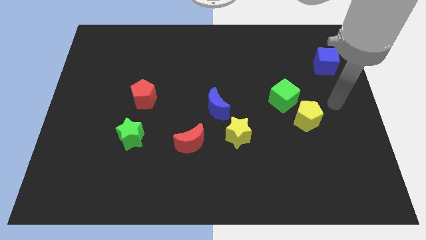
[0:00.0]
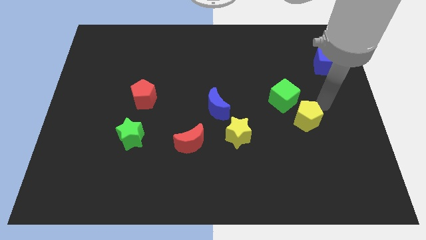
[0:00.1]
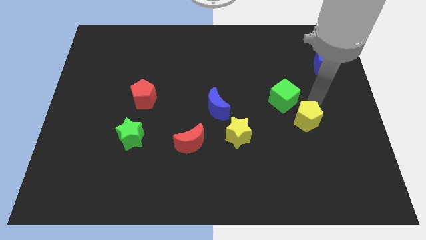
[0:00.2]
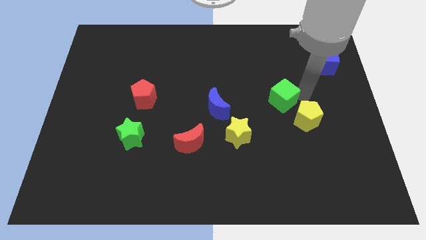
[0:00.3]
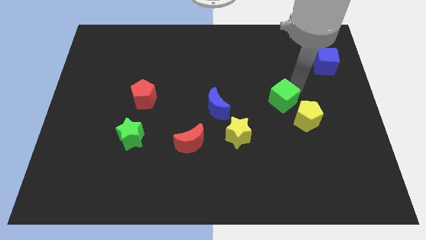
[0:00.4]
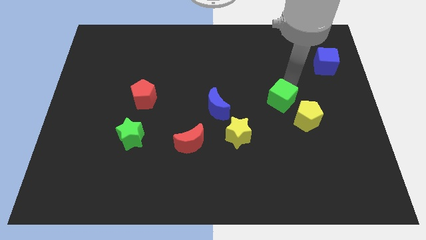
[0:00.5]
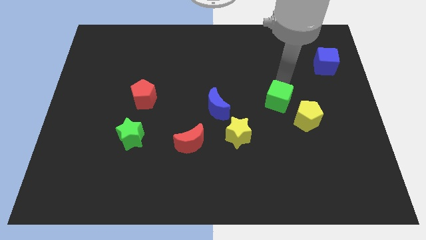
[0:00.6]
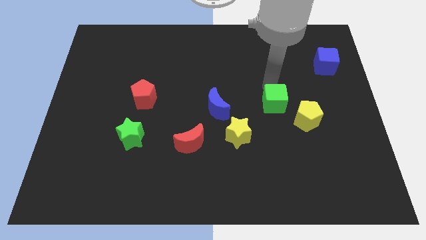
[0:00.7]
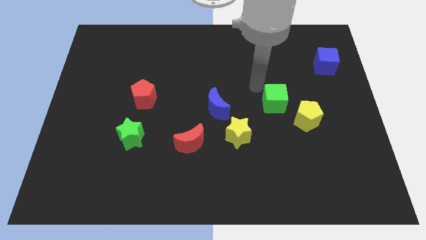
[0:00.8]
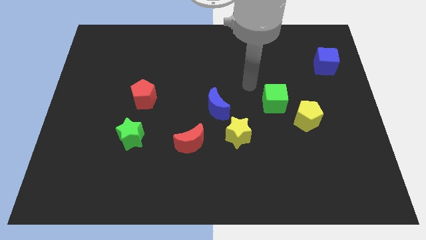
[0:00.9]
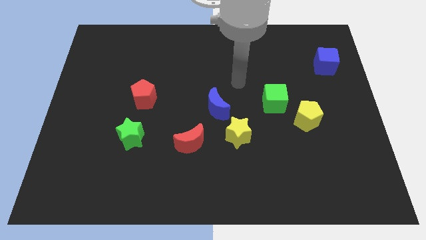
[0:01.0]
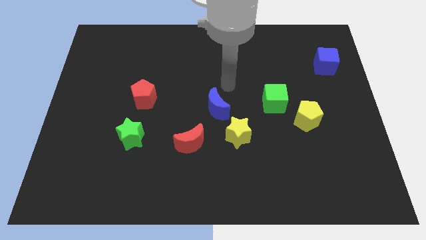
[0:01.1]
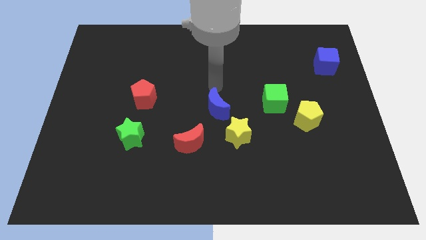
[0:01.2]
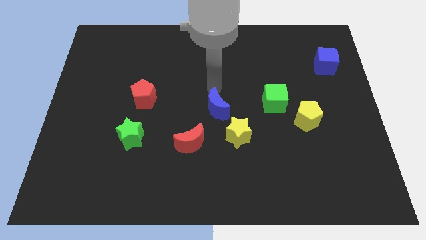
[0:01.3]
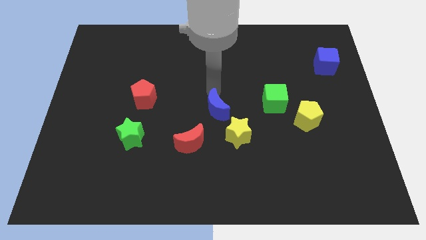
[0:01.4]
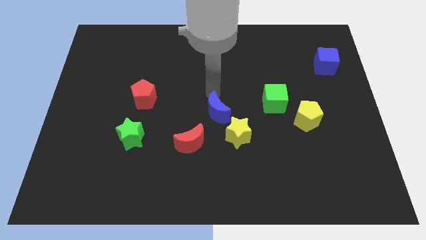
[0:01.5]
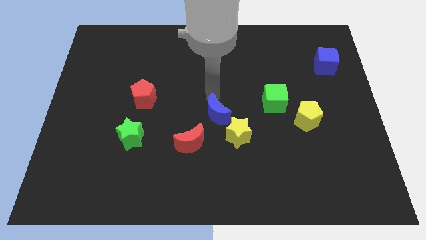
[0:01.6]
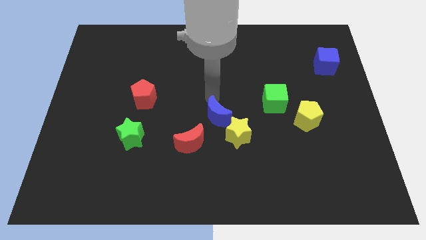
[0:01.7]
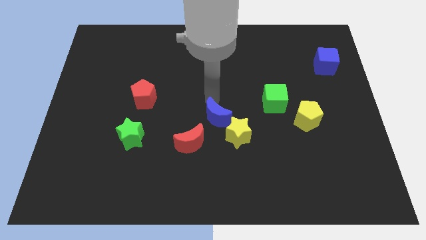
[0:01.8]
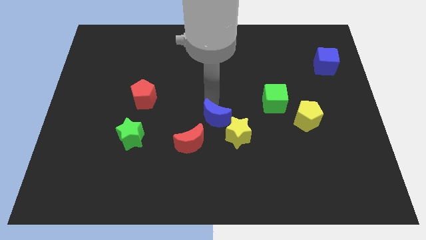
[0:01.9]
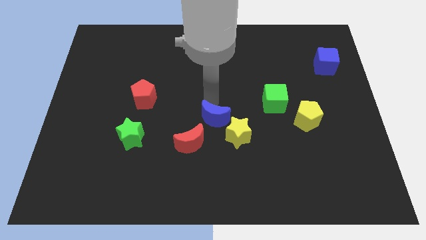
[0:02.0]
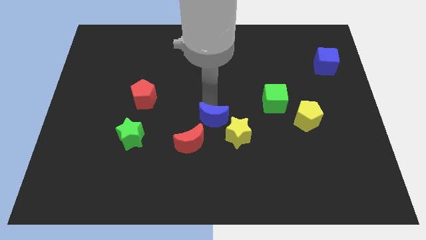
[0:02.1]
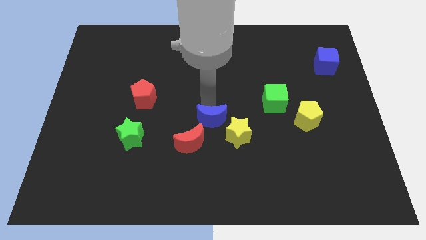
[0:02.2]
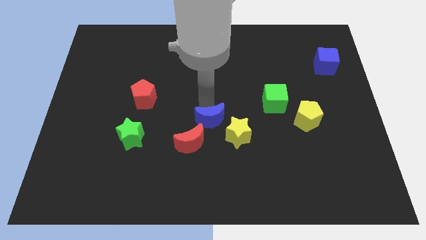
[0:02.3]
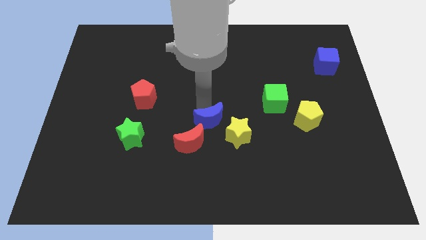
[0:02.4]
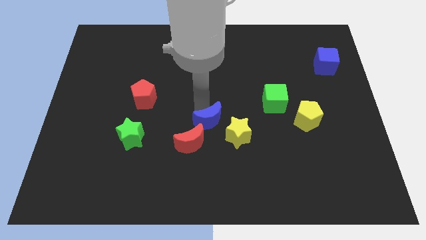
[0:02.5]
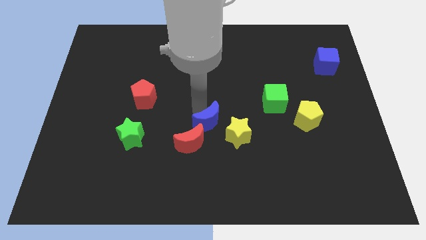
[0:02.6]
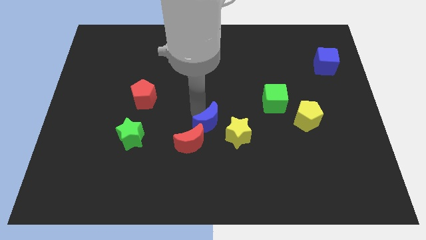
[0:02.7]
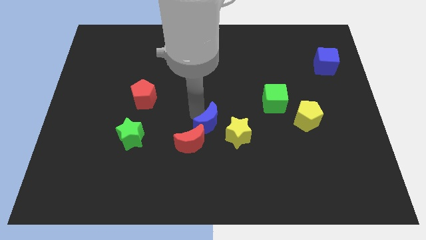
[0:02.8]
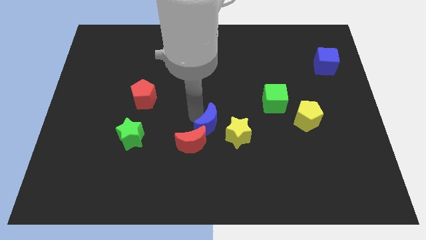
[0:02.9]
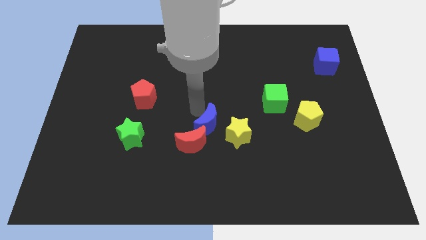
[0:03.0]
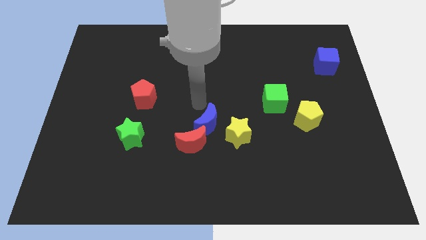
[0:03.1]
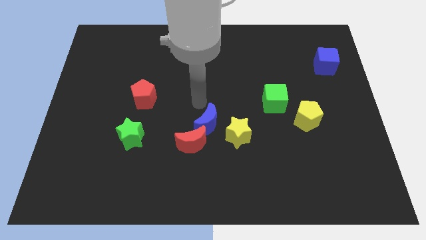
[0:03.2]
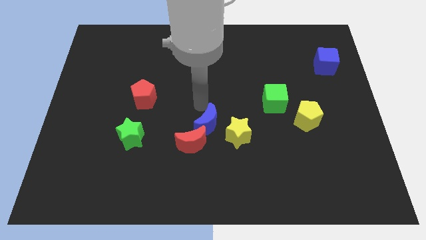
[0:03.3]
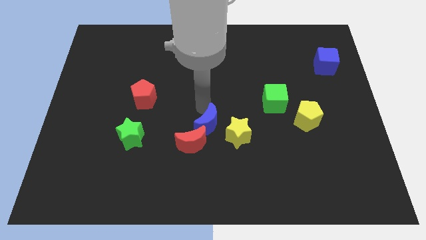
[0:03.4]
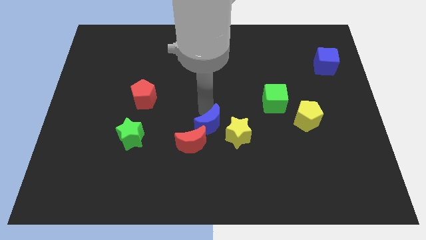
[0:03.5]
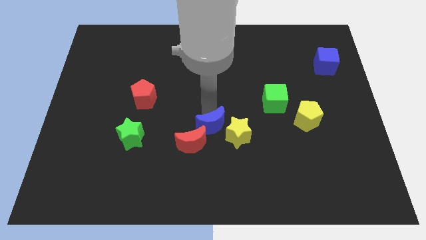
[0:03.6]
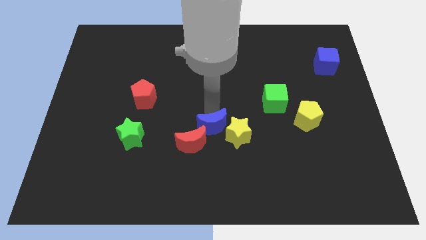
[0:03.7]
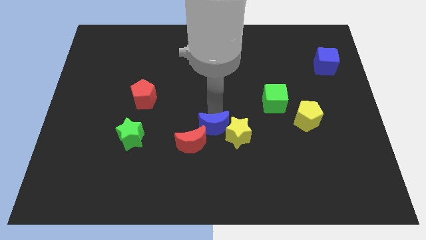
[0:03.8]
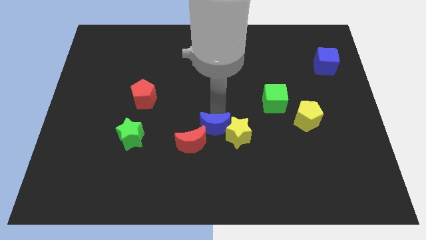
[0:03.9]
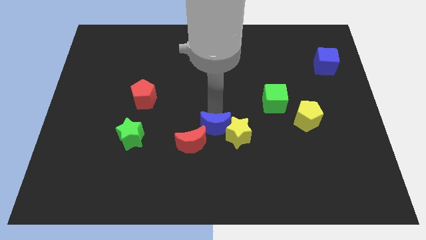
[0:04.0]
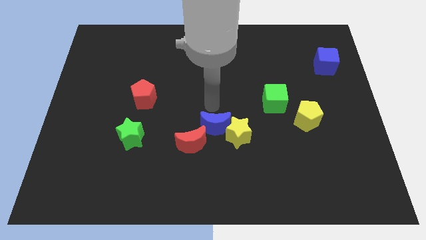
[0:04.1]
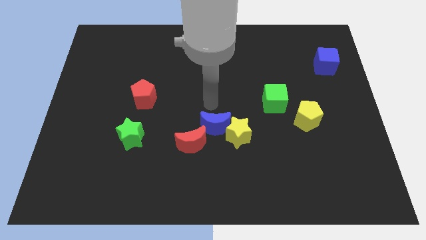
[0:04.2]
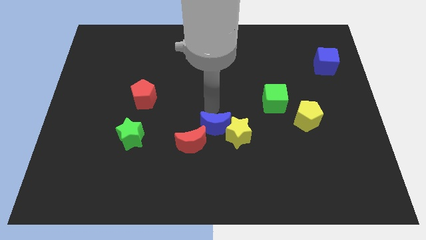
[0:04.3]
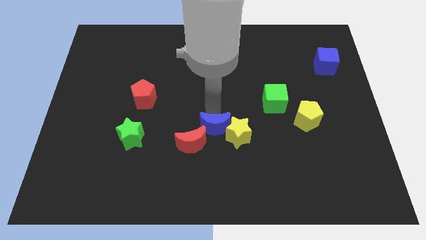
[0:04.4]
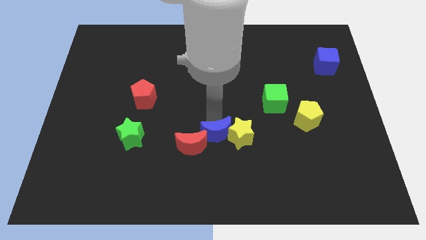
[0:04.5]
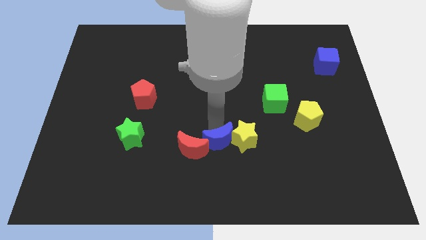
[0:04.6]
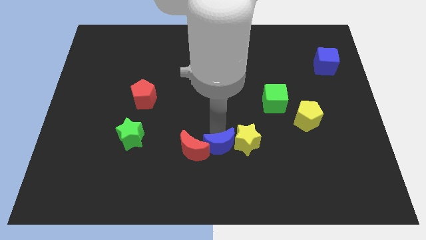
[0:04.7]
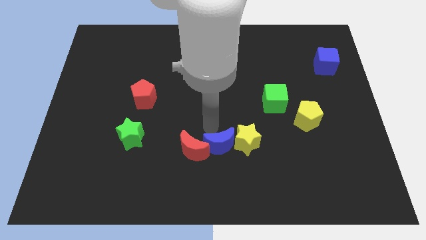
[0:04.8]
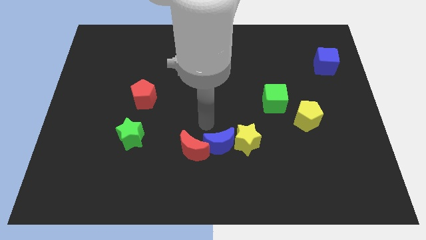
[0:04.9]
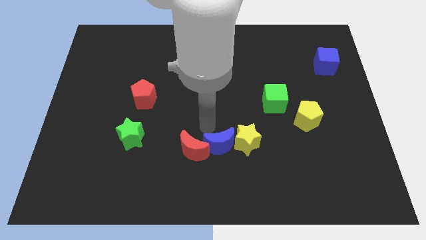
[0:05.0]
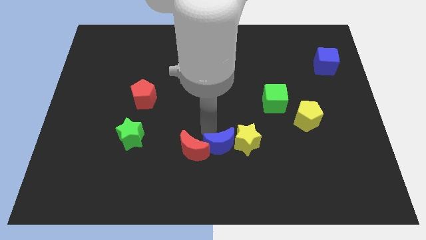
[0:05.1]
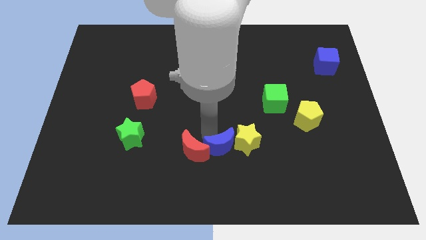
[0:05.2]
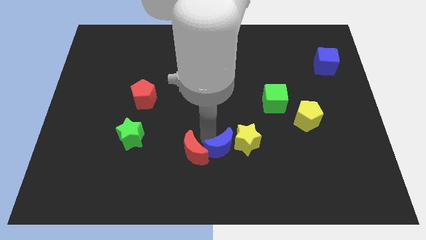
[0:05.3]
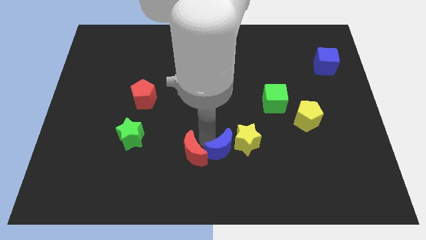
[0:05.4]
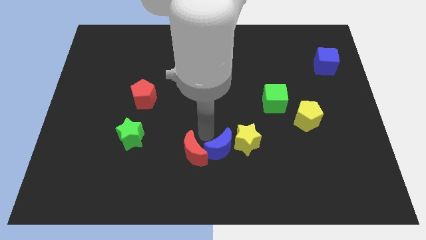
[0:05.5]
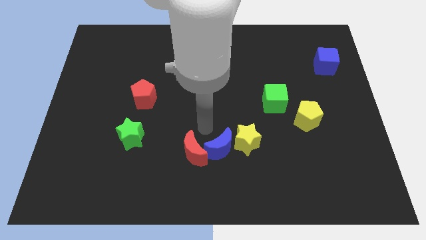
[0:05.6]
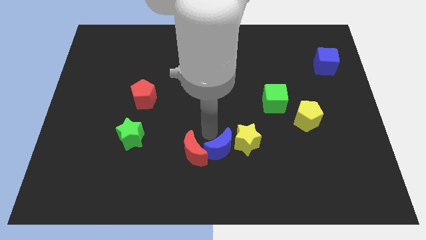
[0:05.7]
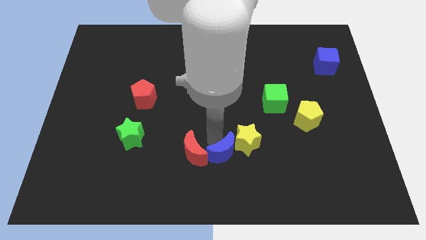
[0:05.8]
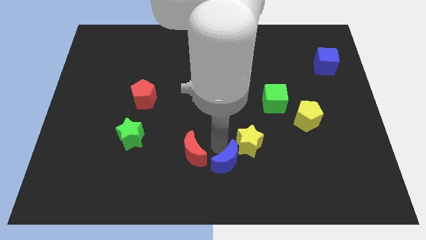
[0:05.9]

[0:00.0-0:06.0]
put the blue moon below the yellow star

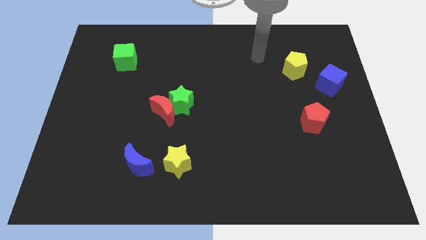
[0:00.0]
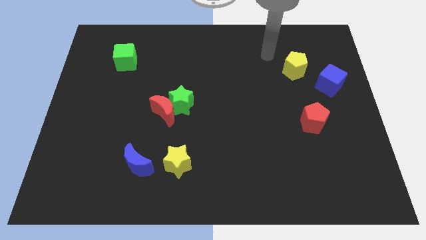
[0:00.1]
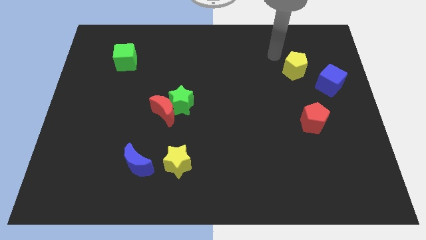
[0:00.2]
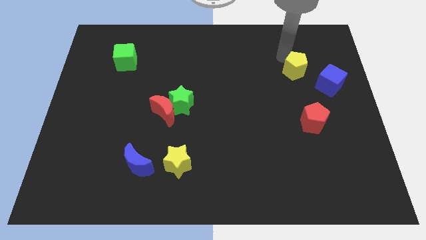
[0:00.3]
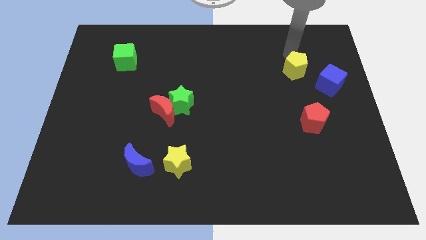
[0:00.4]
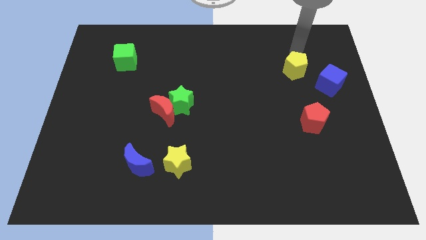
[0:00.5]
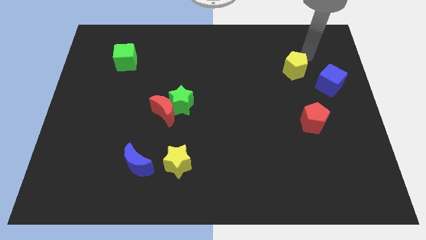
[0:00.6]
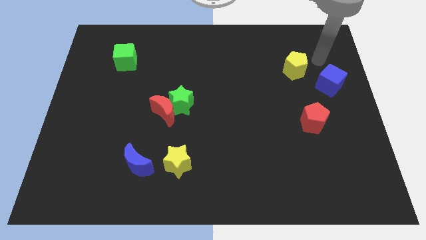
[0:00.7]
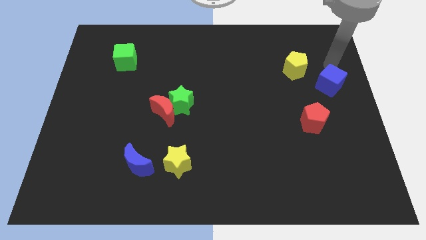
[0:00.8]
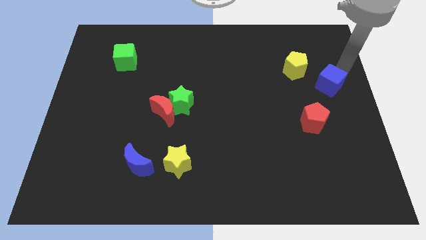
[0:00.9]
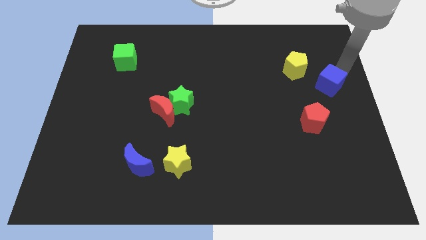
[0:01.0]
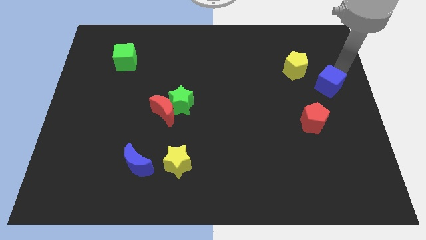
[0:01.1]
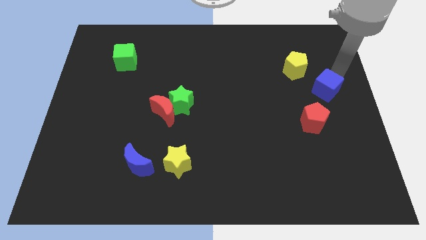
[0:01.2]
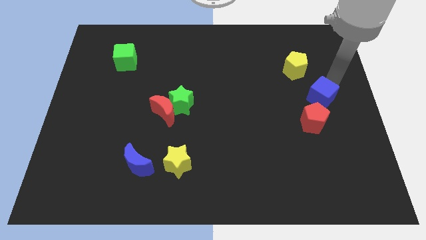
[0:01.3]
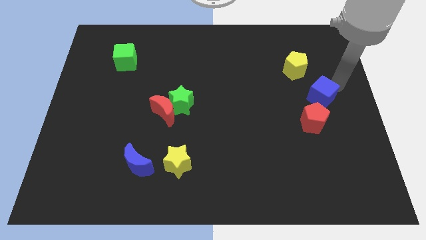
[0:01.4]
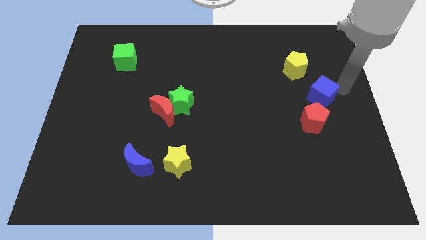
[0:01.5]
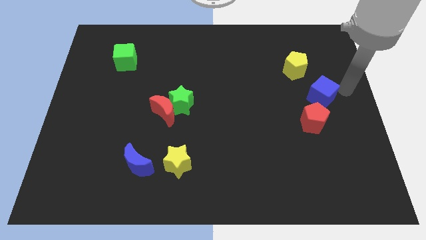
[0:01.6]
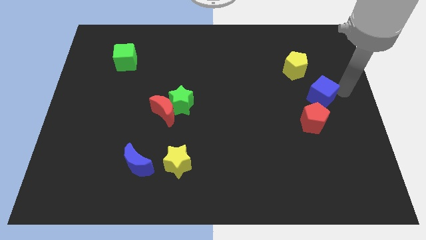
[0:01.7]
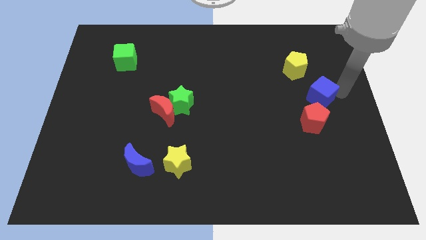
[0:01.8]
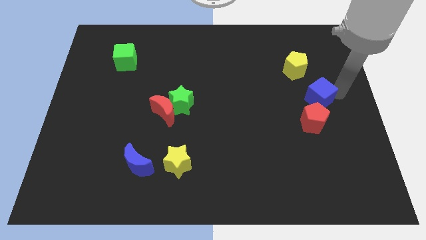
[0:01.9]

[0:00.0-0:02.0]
move the blue cube below the yellow pentagon
